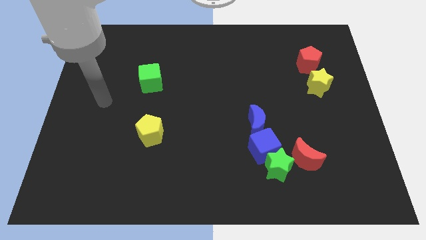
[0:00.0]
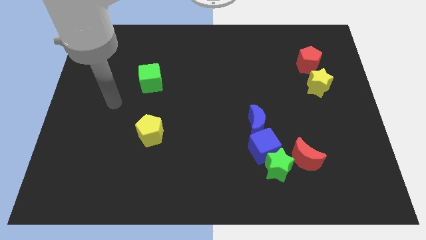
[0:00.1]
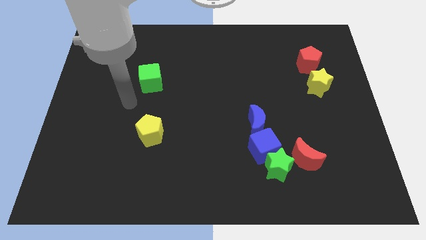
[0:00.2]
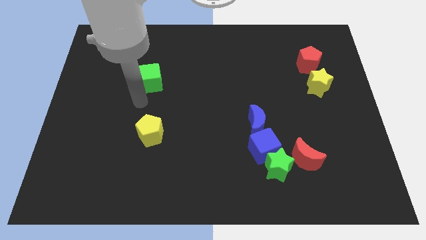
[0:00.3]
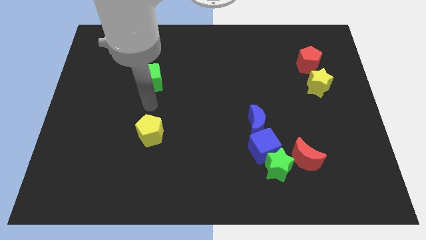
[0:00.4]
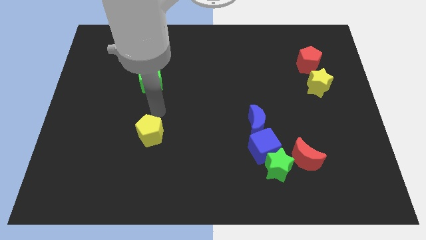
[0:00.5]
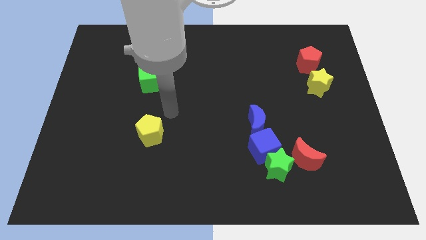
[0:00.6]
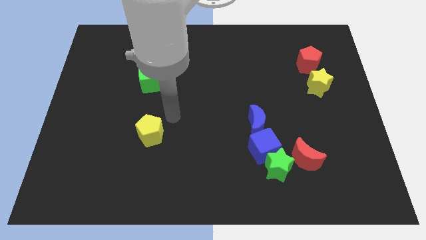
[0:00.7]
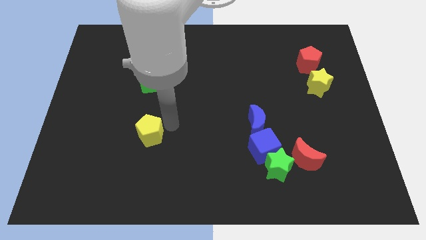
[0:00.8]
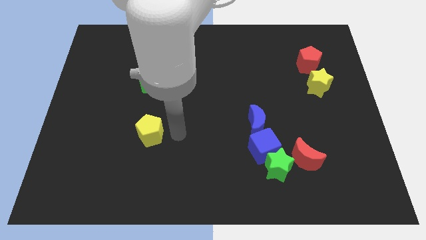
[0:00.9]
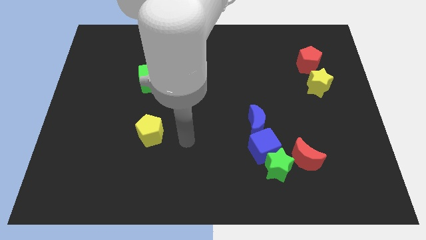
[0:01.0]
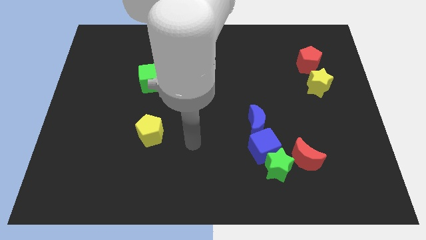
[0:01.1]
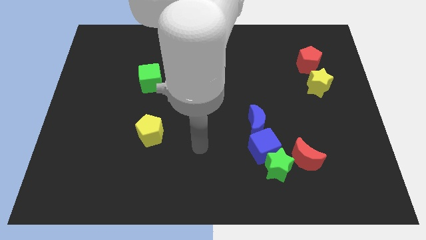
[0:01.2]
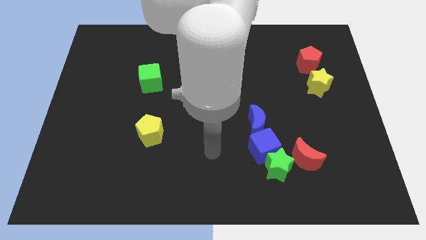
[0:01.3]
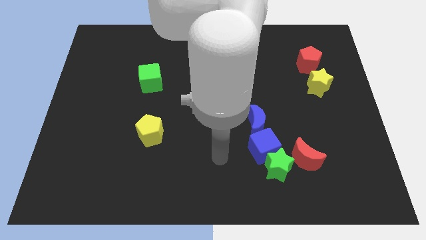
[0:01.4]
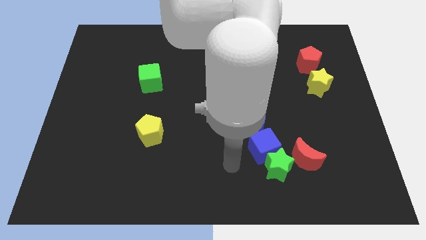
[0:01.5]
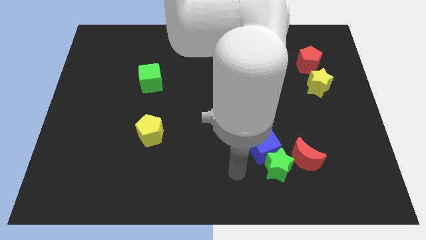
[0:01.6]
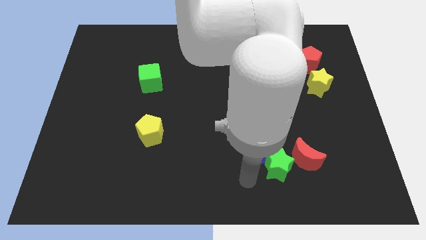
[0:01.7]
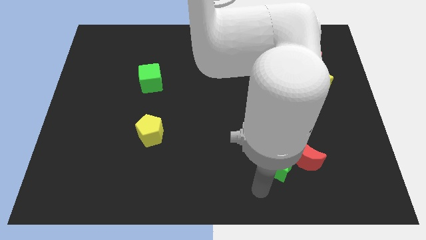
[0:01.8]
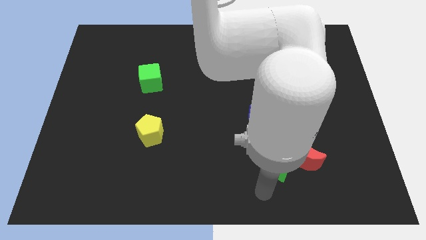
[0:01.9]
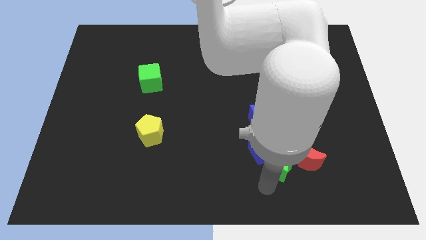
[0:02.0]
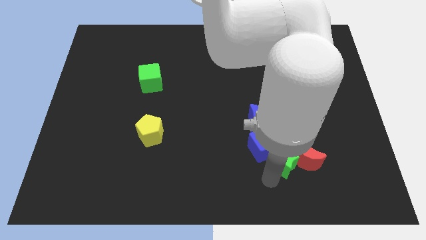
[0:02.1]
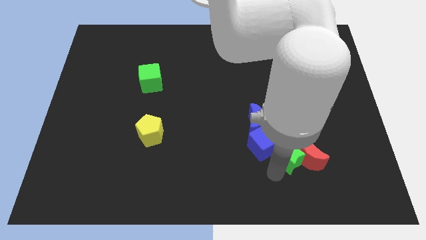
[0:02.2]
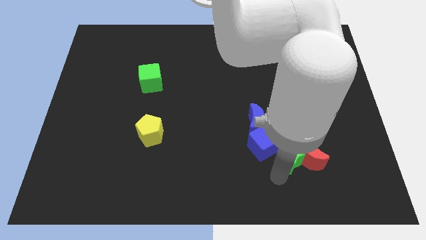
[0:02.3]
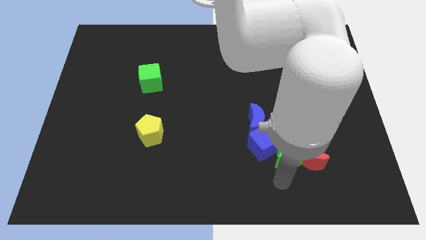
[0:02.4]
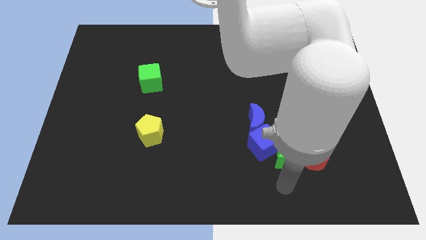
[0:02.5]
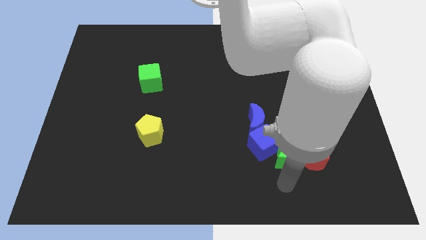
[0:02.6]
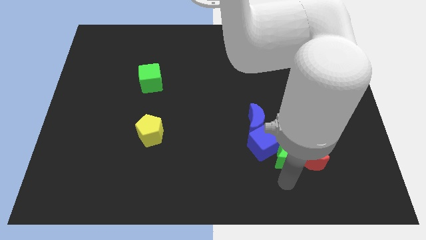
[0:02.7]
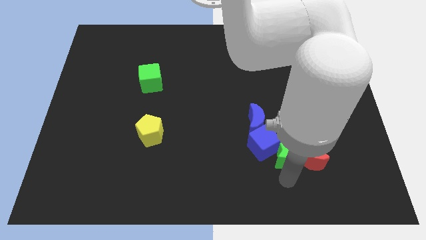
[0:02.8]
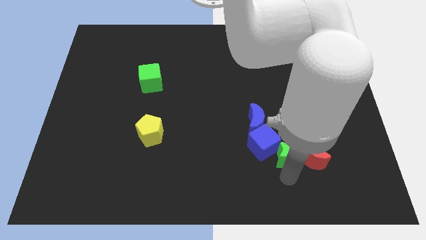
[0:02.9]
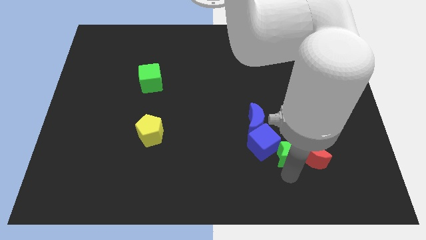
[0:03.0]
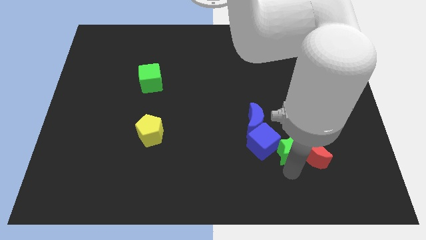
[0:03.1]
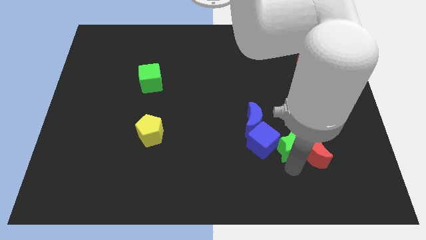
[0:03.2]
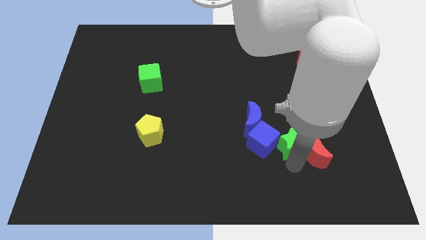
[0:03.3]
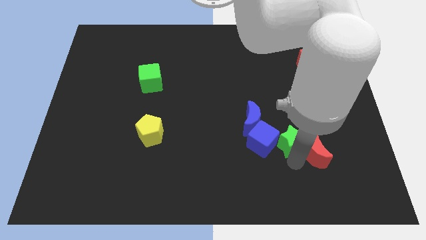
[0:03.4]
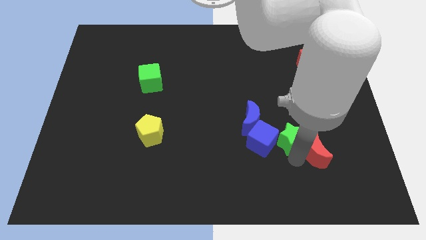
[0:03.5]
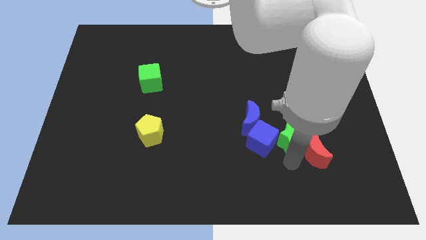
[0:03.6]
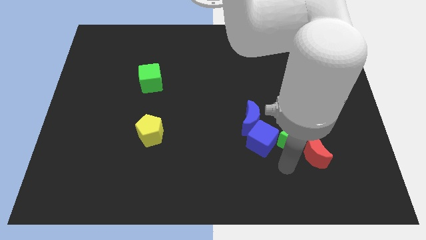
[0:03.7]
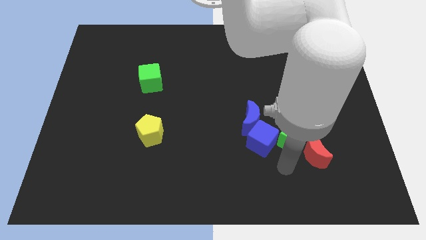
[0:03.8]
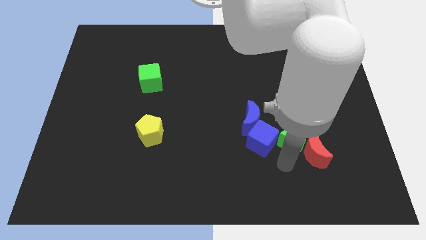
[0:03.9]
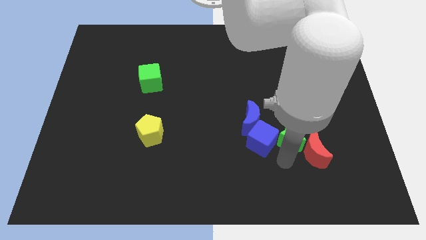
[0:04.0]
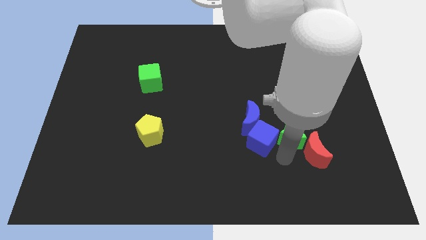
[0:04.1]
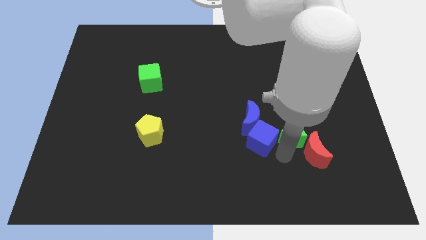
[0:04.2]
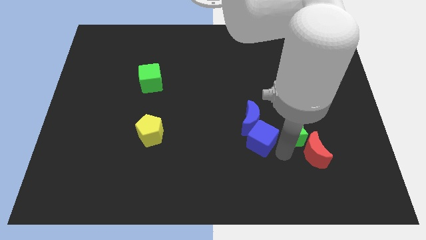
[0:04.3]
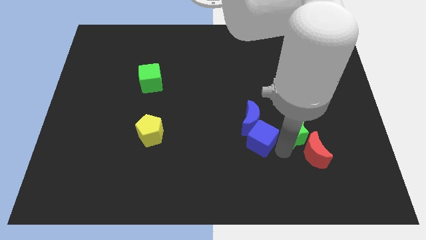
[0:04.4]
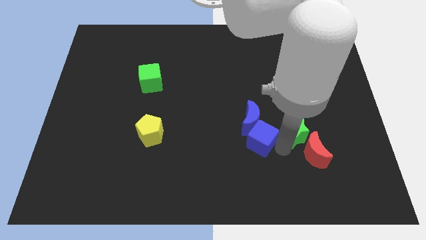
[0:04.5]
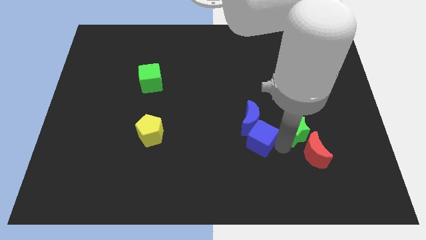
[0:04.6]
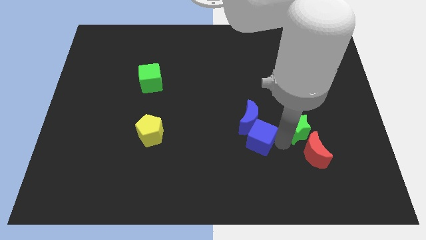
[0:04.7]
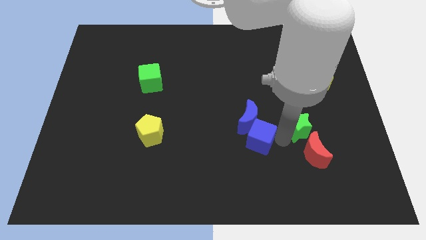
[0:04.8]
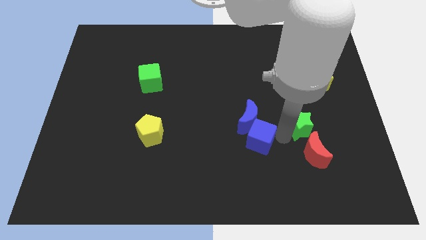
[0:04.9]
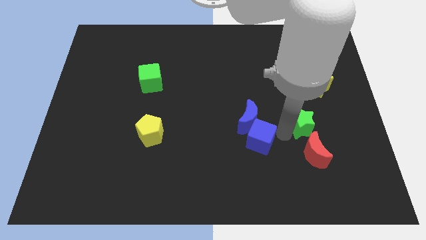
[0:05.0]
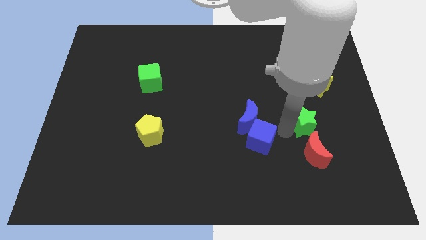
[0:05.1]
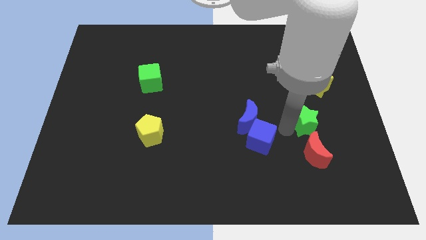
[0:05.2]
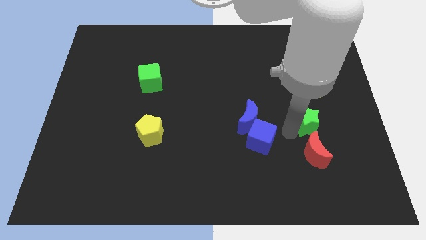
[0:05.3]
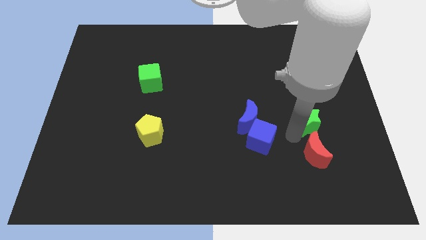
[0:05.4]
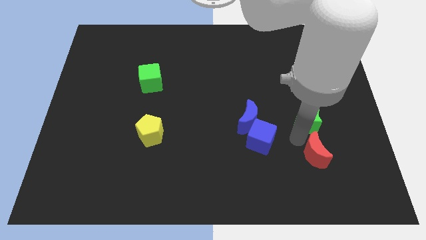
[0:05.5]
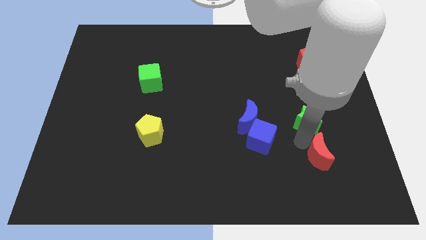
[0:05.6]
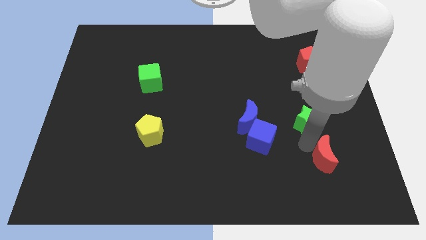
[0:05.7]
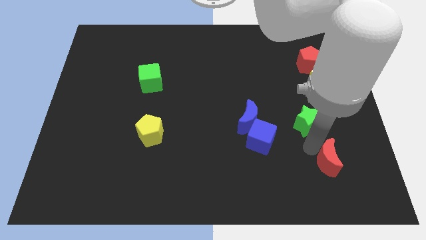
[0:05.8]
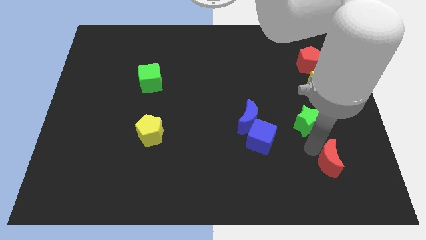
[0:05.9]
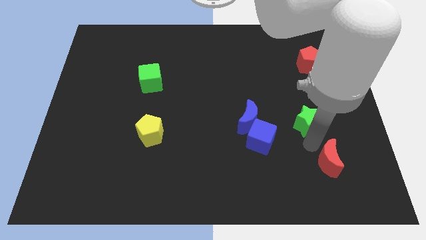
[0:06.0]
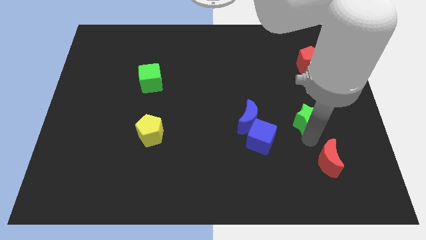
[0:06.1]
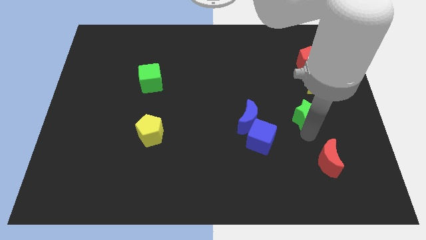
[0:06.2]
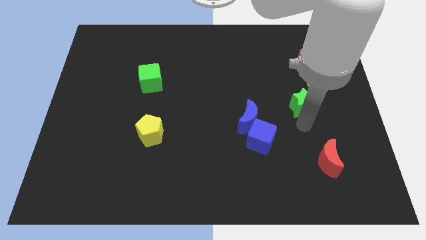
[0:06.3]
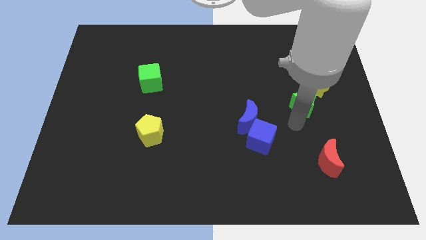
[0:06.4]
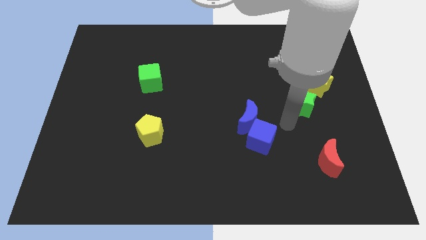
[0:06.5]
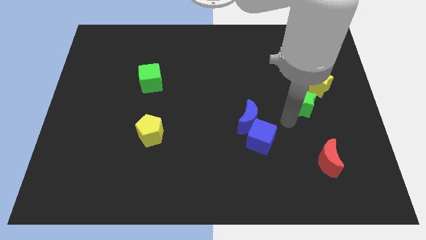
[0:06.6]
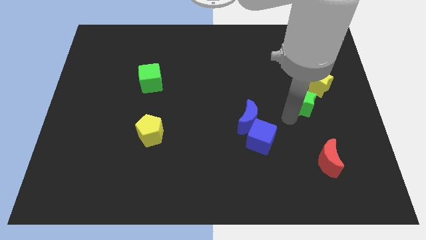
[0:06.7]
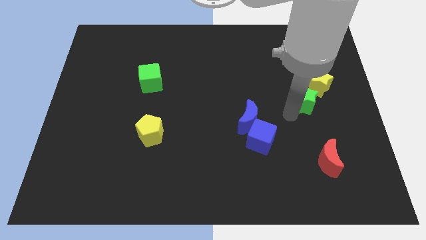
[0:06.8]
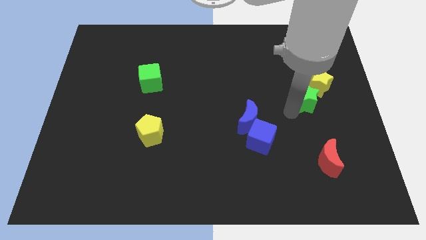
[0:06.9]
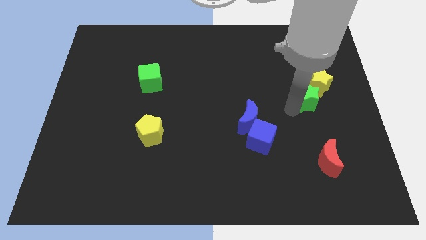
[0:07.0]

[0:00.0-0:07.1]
move the green star towards the yellow star
